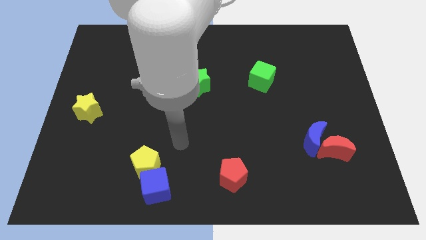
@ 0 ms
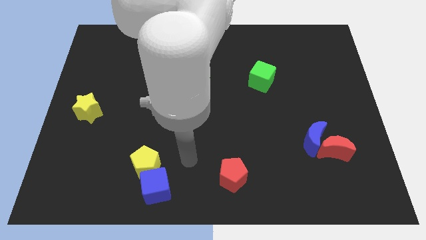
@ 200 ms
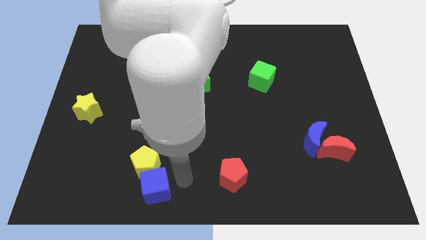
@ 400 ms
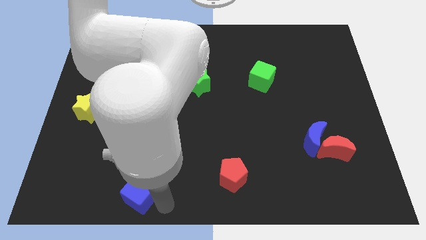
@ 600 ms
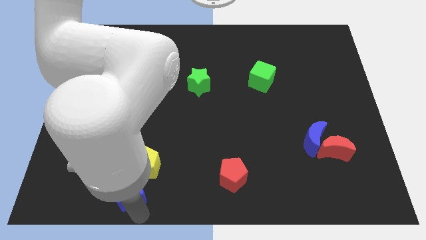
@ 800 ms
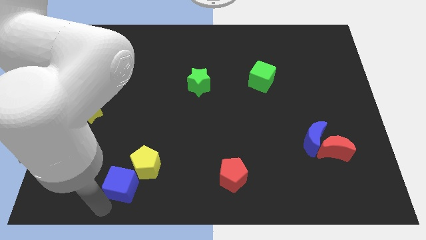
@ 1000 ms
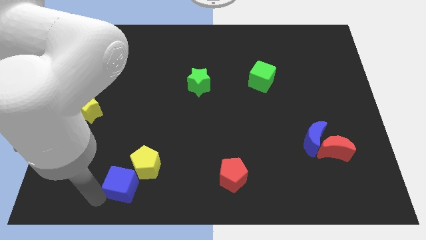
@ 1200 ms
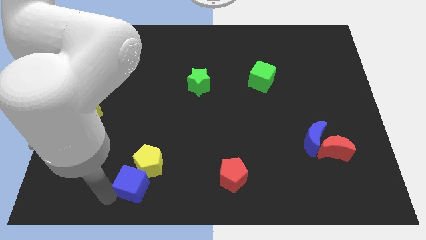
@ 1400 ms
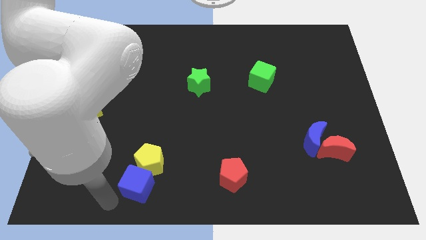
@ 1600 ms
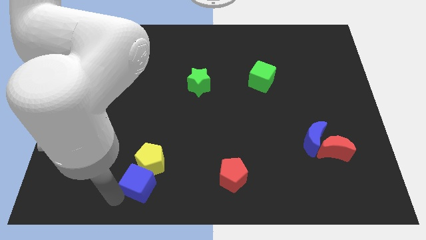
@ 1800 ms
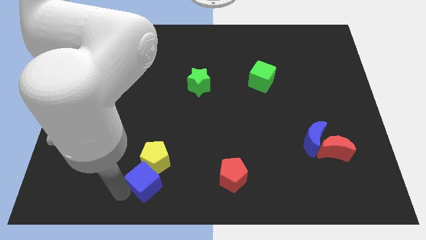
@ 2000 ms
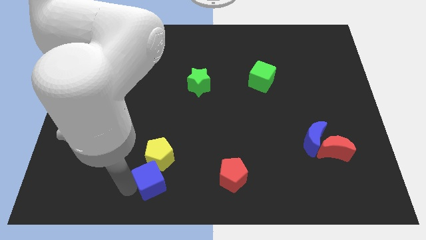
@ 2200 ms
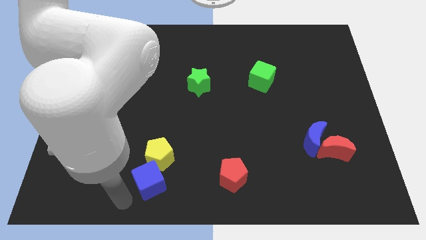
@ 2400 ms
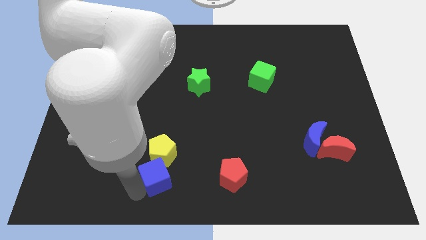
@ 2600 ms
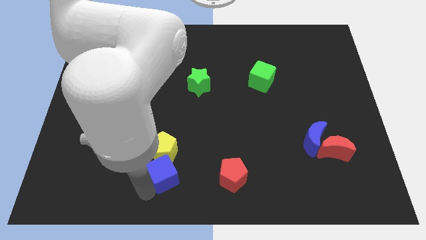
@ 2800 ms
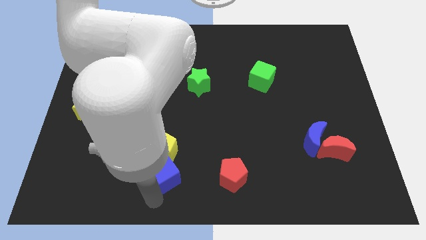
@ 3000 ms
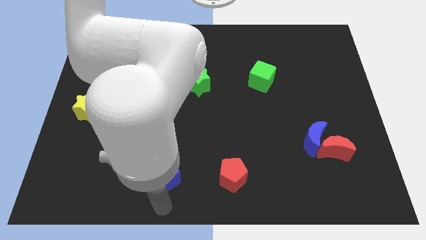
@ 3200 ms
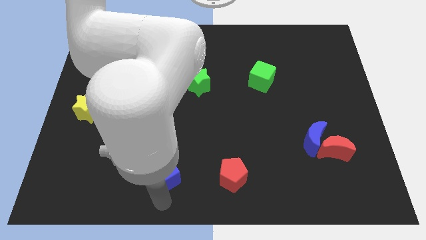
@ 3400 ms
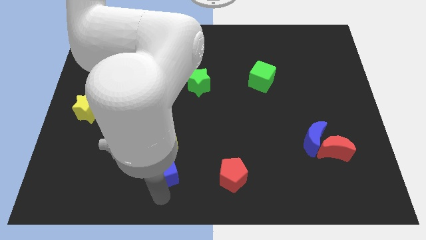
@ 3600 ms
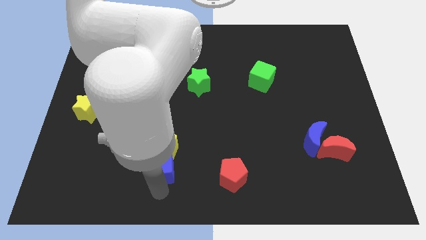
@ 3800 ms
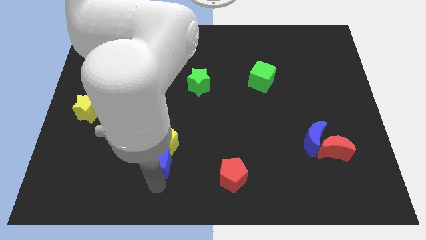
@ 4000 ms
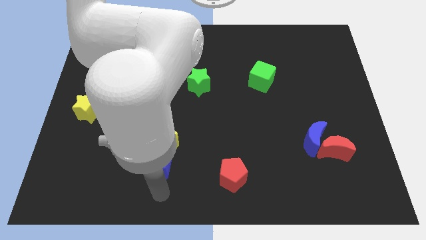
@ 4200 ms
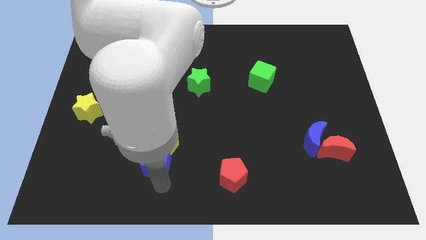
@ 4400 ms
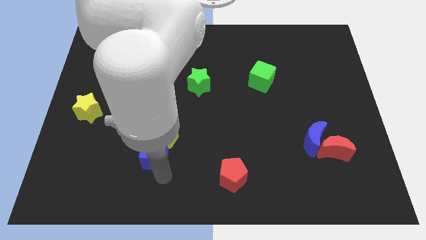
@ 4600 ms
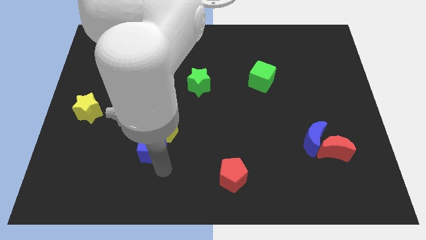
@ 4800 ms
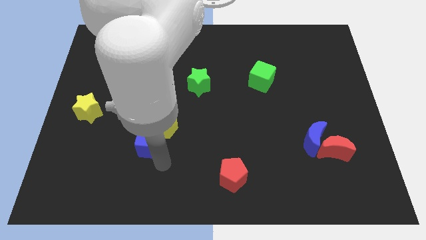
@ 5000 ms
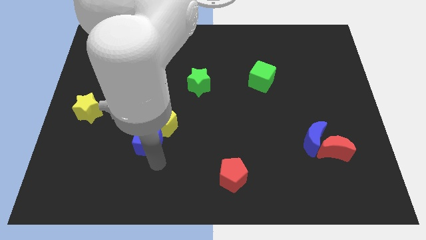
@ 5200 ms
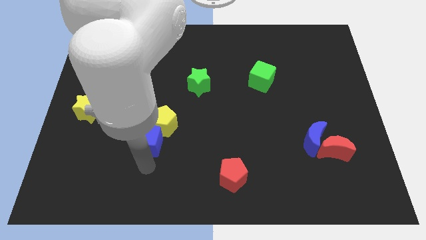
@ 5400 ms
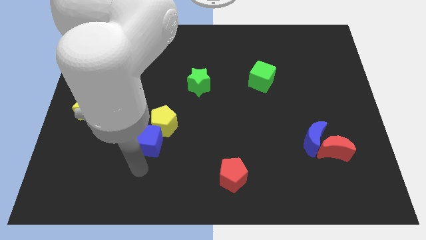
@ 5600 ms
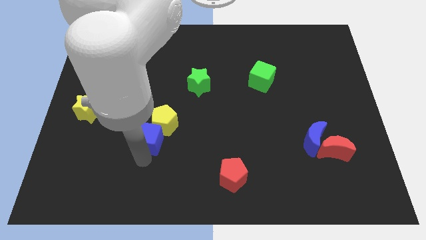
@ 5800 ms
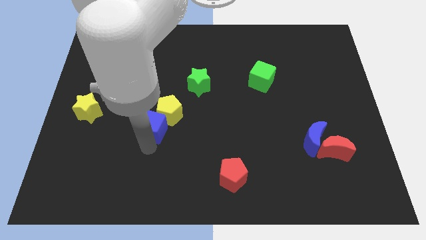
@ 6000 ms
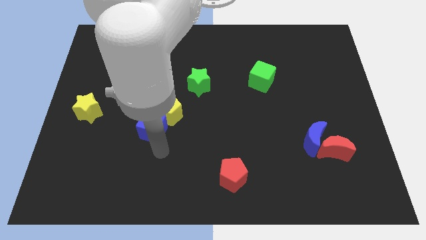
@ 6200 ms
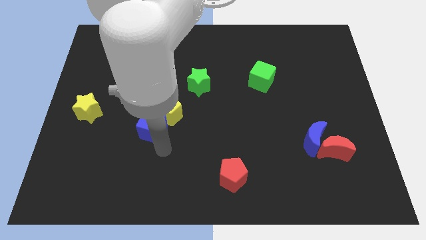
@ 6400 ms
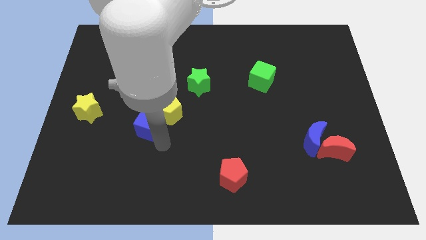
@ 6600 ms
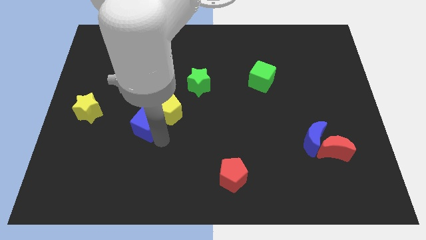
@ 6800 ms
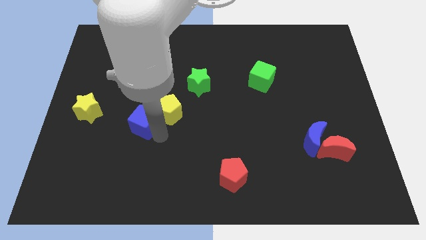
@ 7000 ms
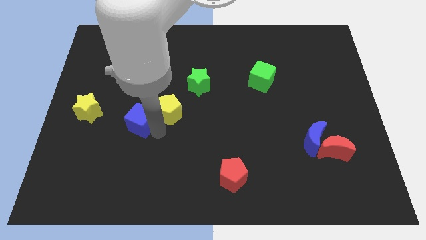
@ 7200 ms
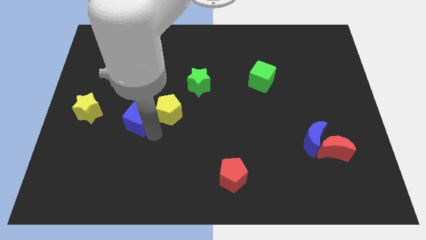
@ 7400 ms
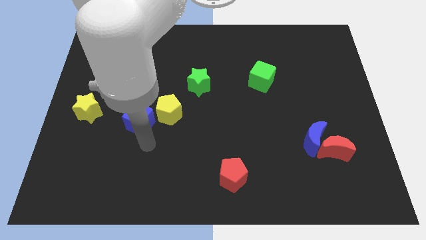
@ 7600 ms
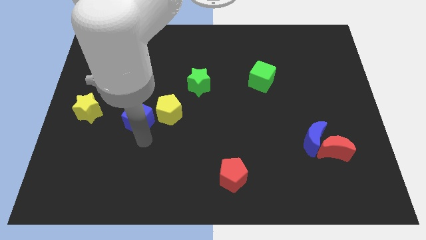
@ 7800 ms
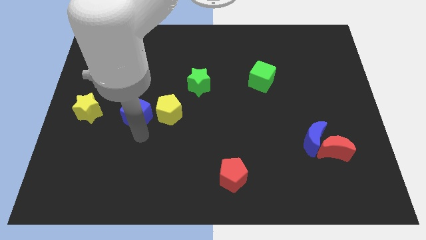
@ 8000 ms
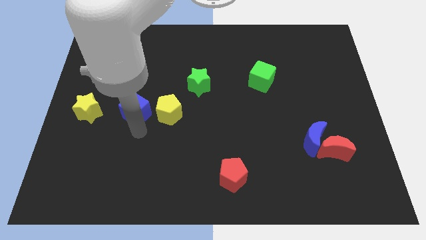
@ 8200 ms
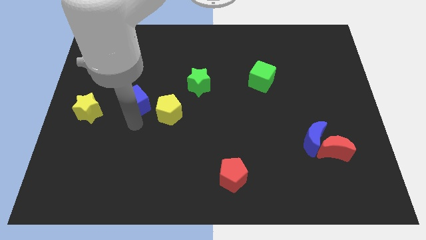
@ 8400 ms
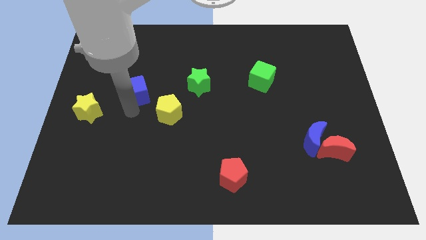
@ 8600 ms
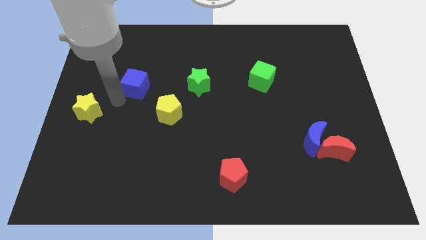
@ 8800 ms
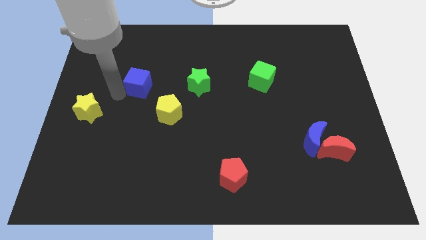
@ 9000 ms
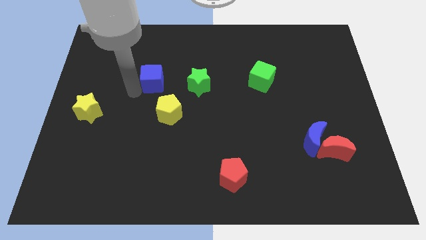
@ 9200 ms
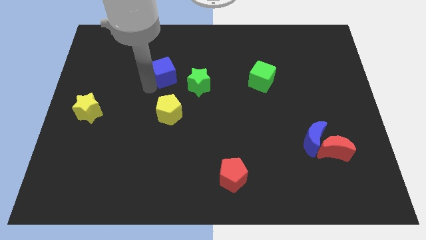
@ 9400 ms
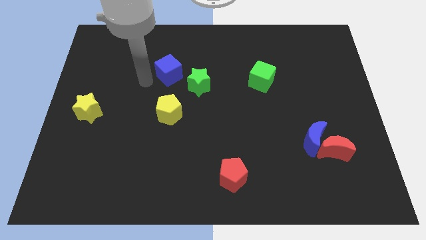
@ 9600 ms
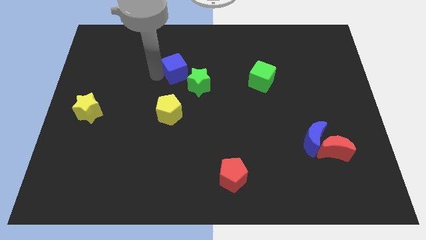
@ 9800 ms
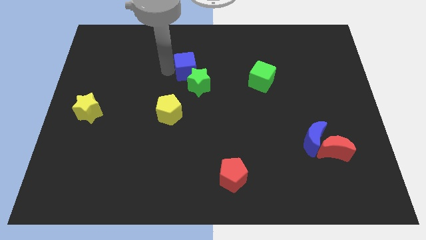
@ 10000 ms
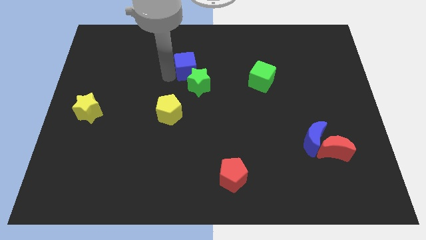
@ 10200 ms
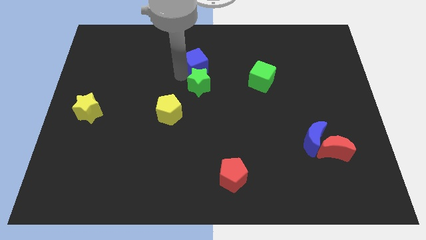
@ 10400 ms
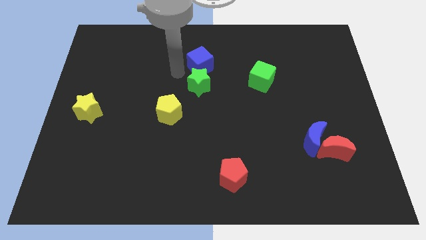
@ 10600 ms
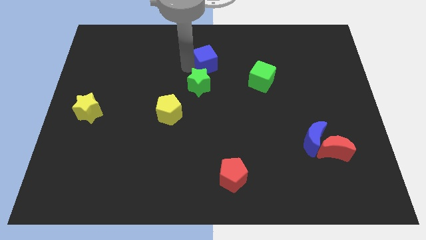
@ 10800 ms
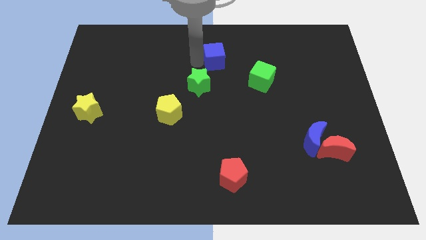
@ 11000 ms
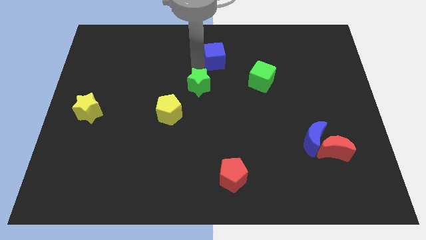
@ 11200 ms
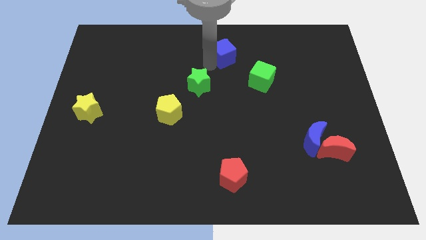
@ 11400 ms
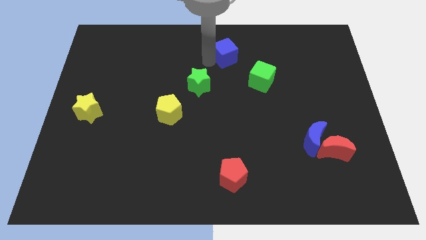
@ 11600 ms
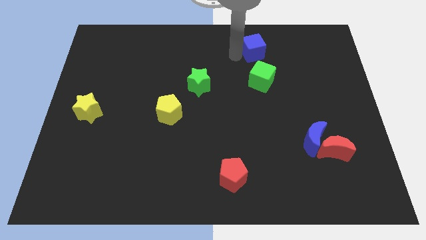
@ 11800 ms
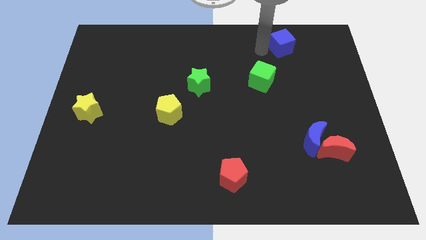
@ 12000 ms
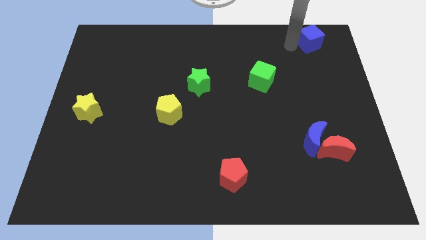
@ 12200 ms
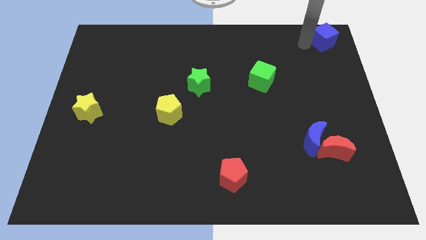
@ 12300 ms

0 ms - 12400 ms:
push the blue cube to the top right

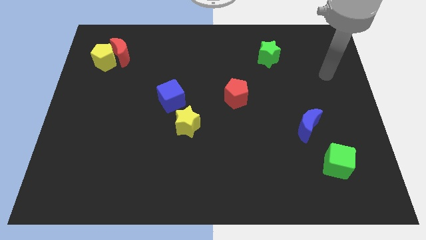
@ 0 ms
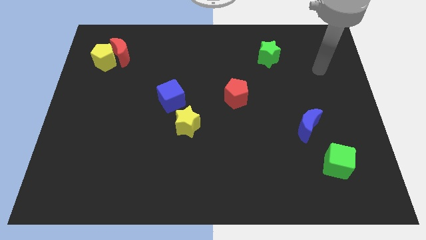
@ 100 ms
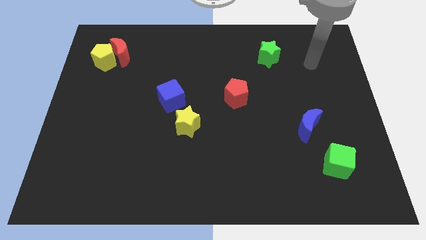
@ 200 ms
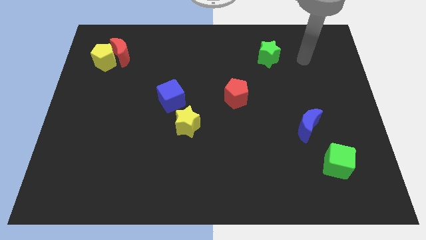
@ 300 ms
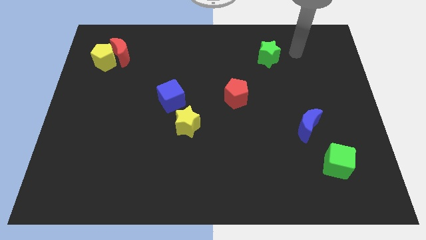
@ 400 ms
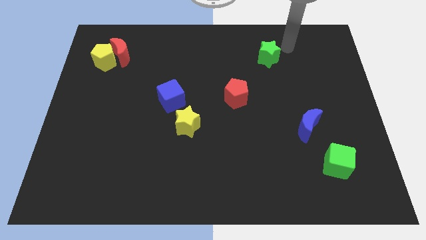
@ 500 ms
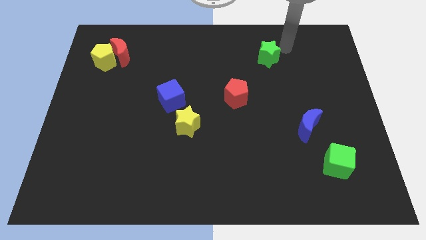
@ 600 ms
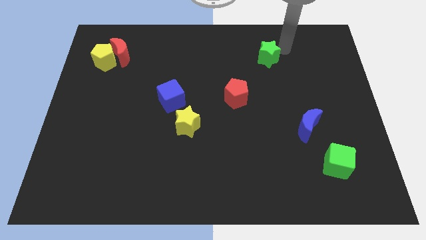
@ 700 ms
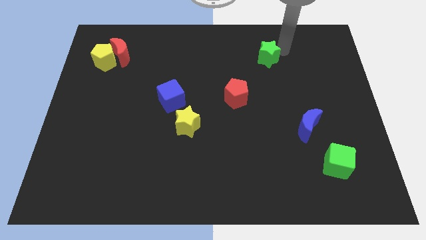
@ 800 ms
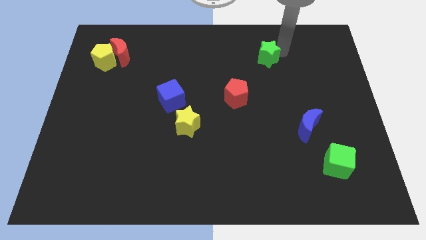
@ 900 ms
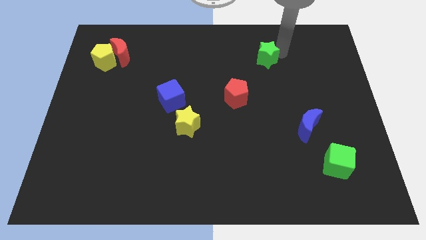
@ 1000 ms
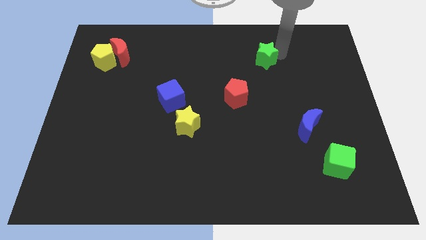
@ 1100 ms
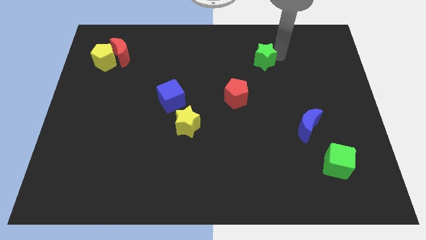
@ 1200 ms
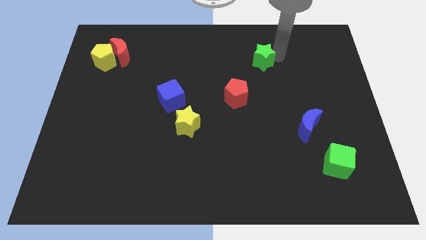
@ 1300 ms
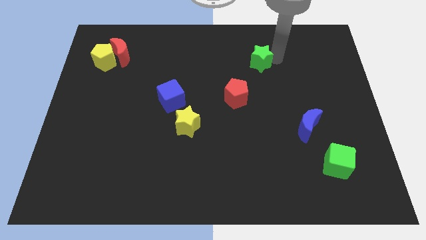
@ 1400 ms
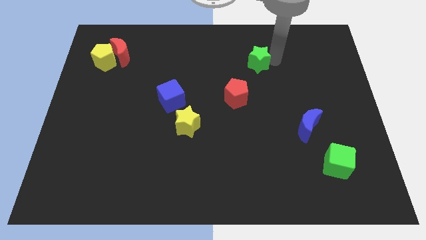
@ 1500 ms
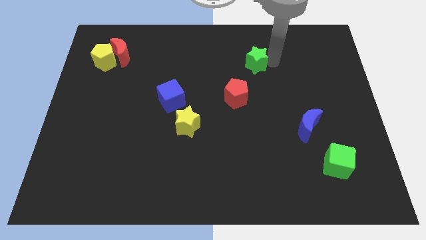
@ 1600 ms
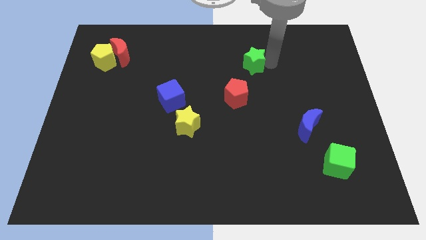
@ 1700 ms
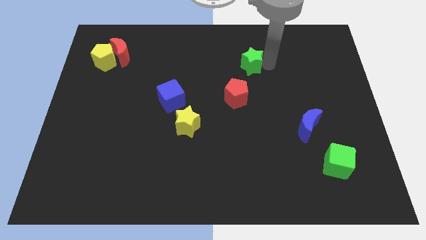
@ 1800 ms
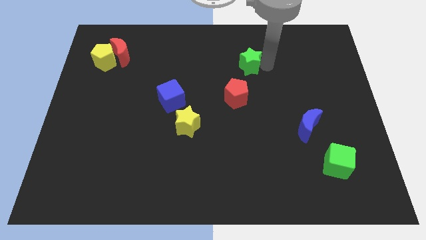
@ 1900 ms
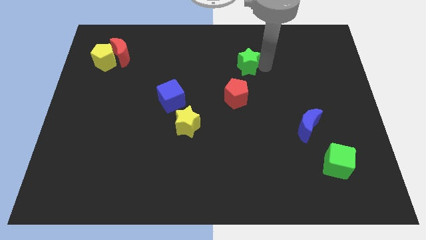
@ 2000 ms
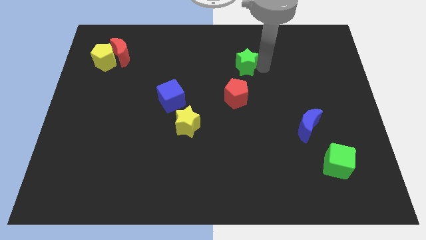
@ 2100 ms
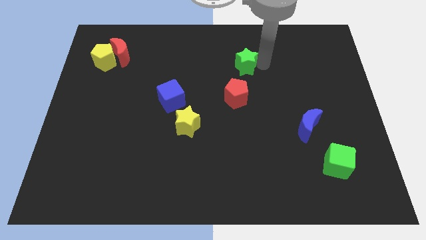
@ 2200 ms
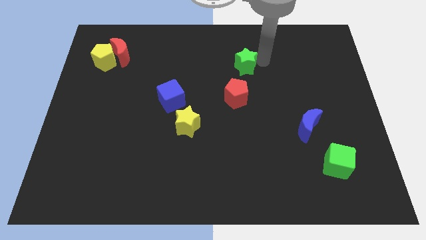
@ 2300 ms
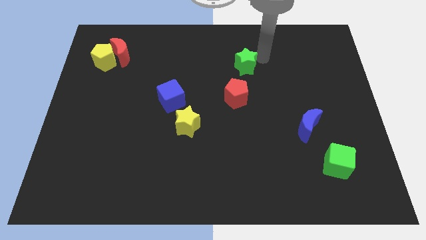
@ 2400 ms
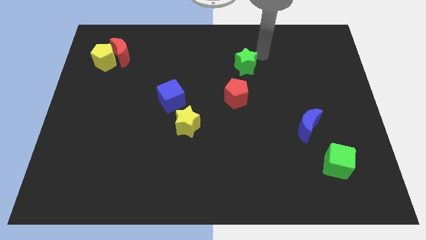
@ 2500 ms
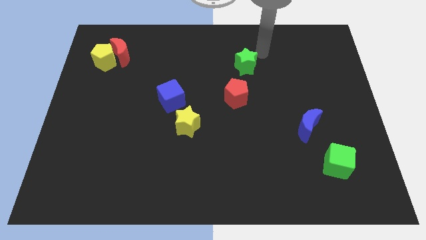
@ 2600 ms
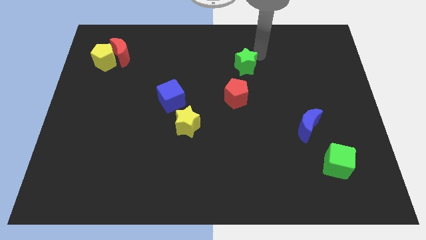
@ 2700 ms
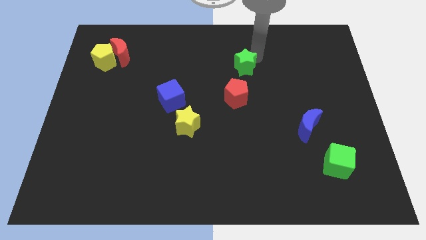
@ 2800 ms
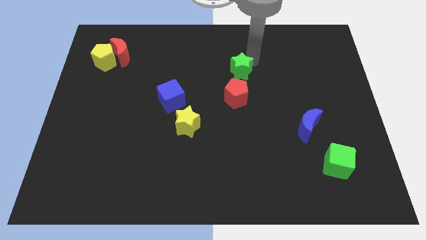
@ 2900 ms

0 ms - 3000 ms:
put the green star to the center of the board
